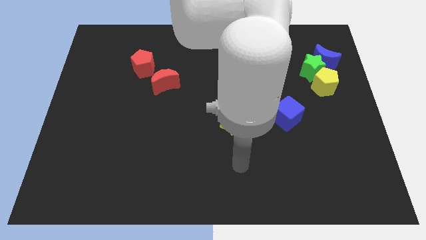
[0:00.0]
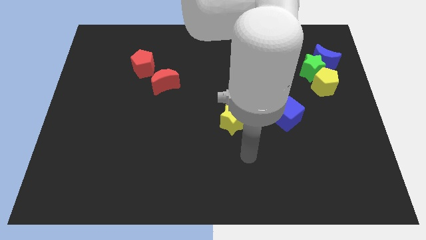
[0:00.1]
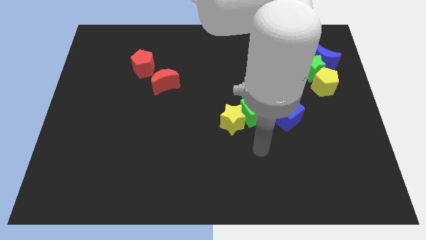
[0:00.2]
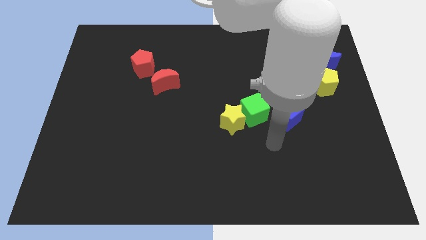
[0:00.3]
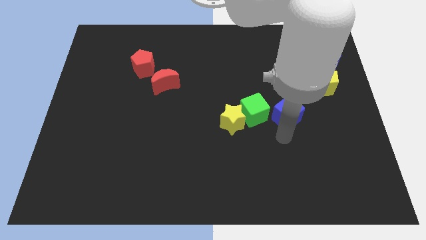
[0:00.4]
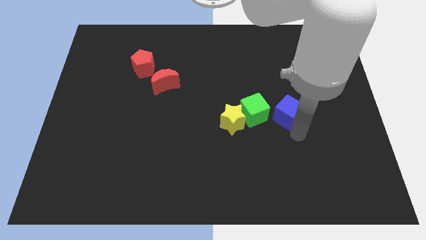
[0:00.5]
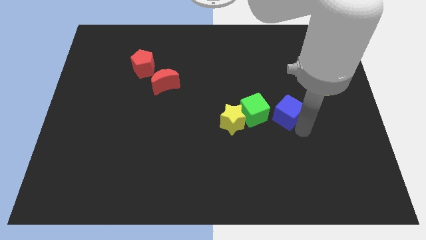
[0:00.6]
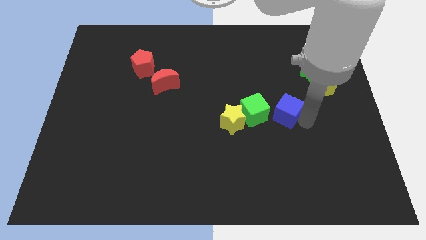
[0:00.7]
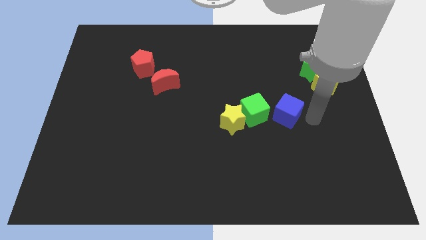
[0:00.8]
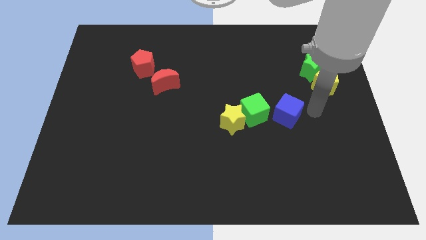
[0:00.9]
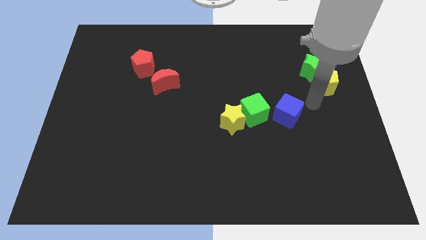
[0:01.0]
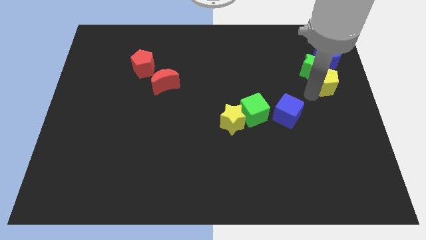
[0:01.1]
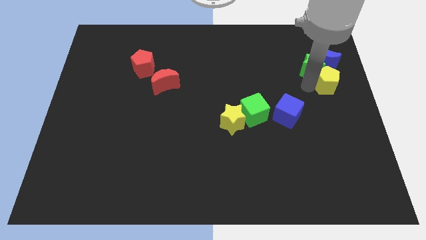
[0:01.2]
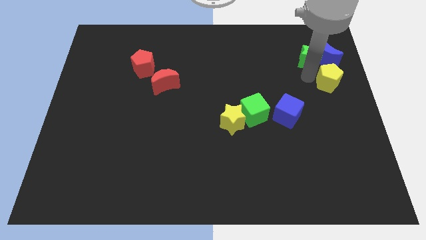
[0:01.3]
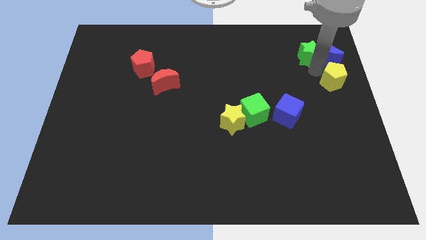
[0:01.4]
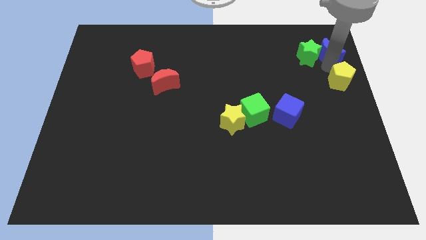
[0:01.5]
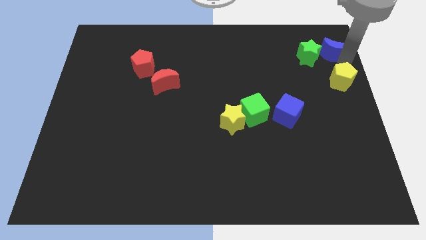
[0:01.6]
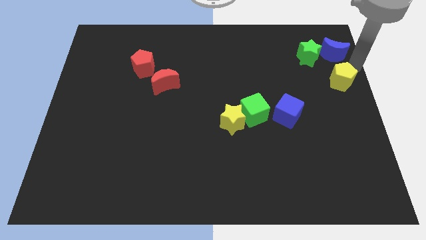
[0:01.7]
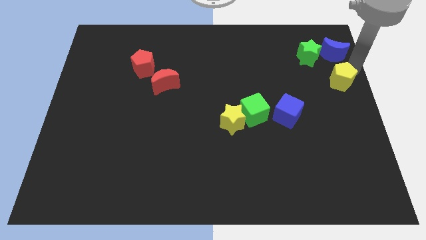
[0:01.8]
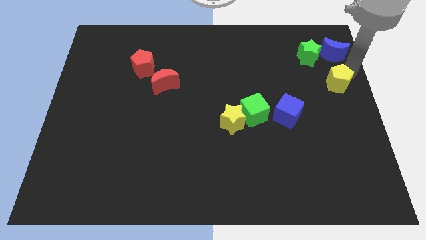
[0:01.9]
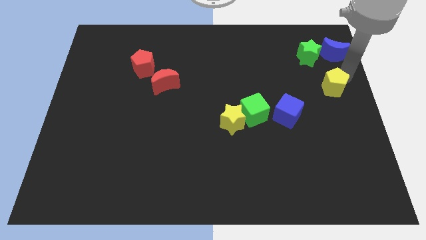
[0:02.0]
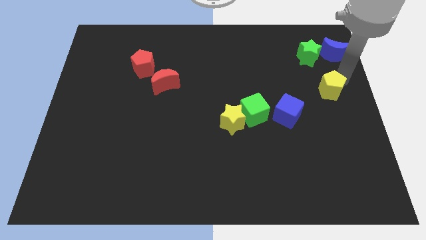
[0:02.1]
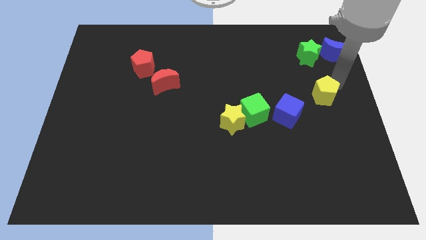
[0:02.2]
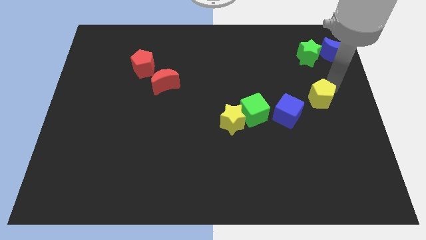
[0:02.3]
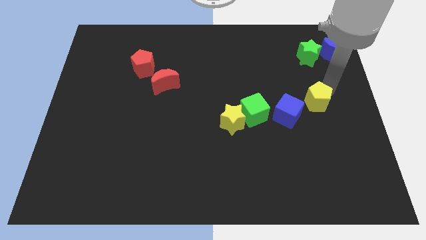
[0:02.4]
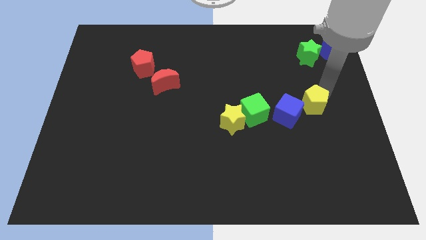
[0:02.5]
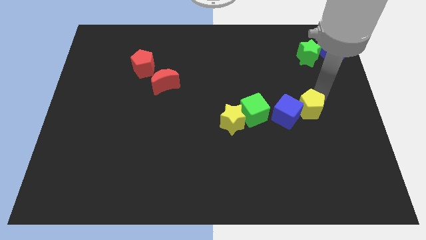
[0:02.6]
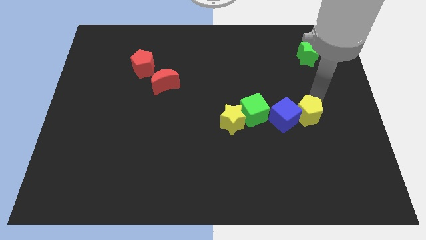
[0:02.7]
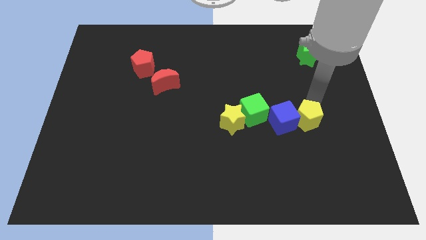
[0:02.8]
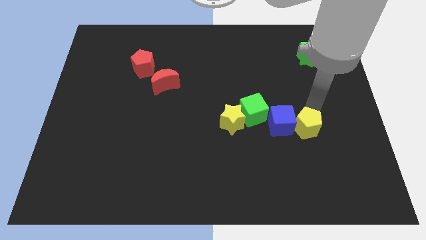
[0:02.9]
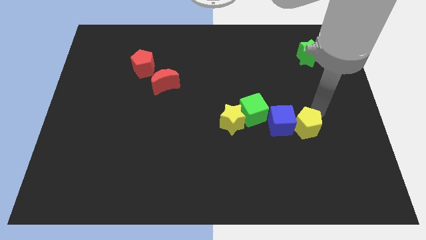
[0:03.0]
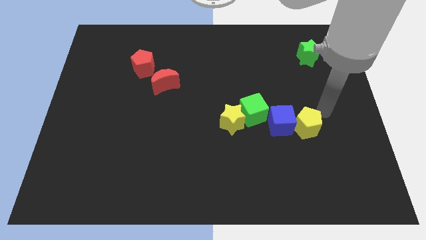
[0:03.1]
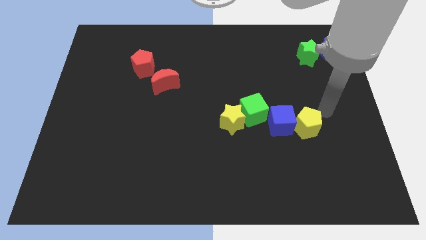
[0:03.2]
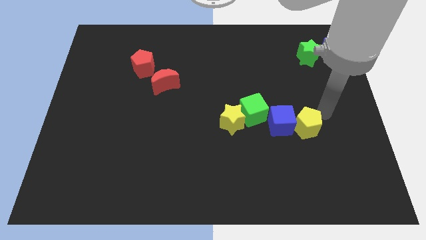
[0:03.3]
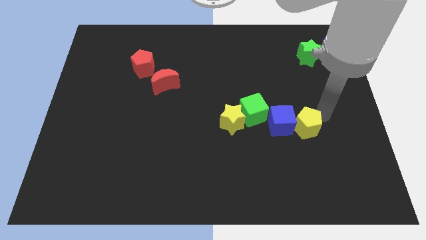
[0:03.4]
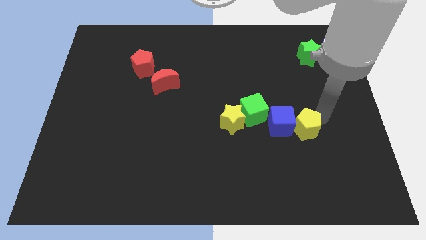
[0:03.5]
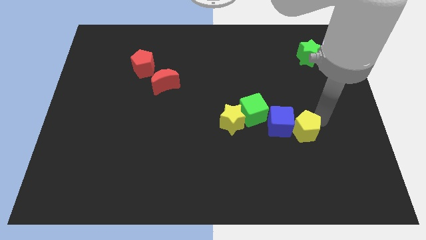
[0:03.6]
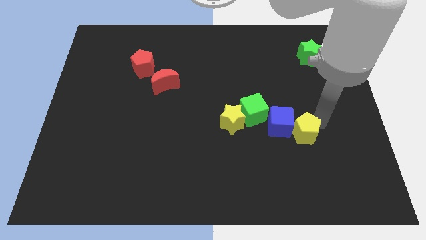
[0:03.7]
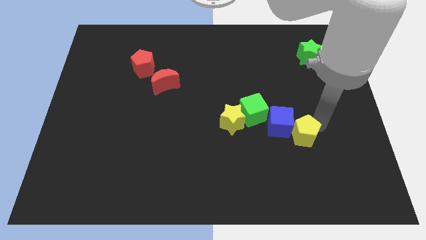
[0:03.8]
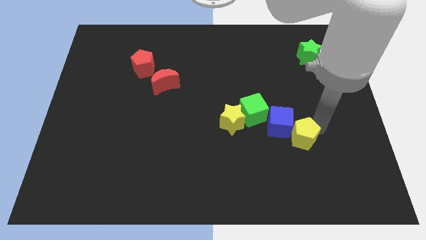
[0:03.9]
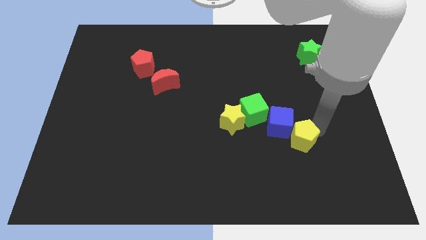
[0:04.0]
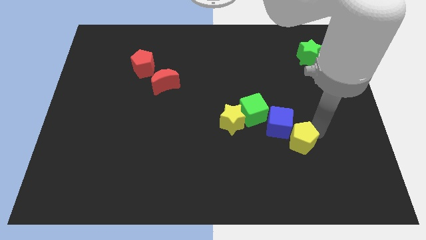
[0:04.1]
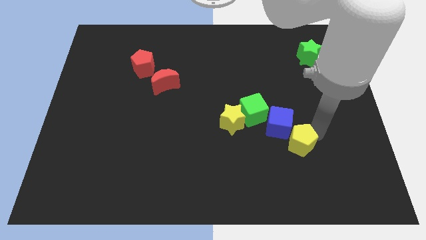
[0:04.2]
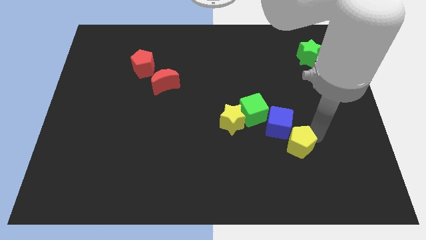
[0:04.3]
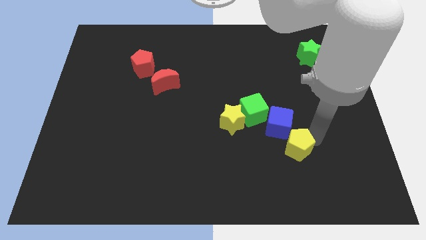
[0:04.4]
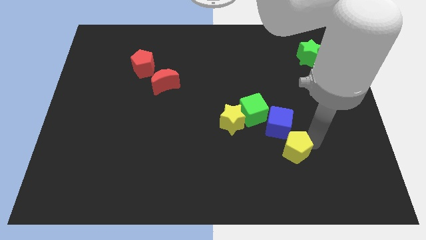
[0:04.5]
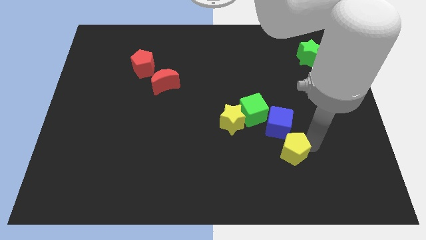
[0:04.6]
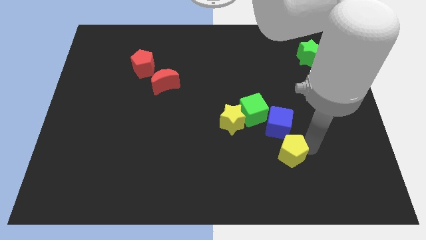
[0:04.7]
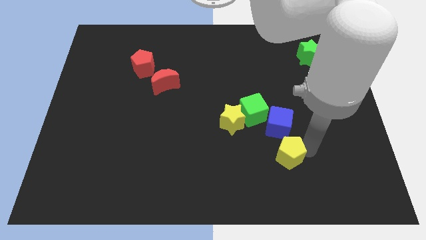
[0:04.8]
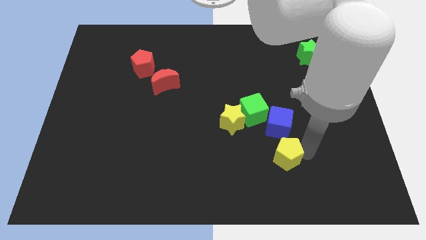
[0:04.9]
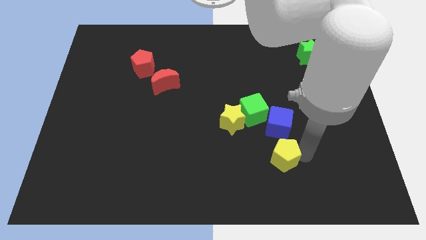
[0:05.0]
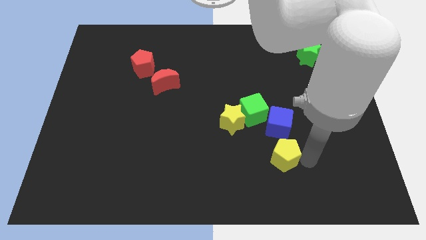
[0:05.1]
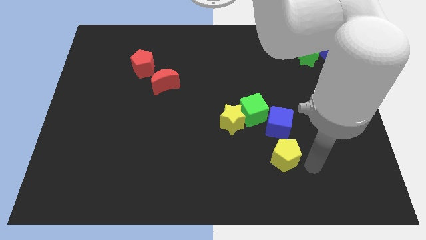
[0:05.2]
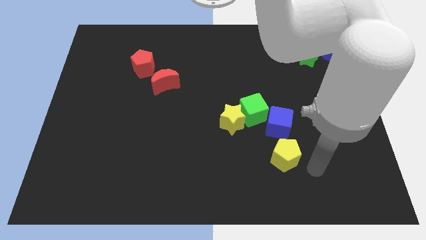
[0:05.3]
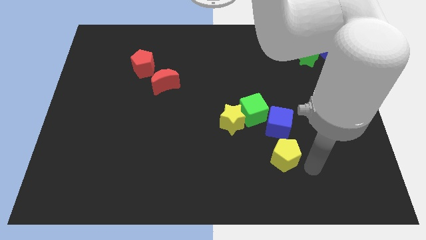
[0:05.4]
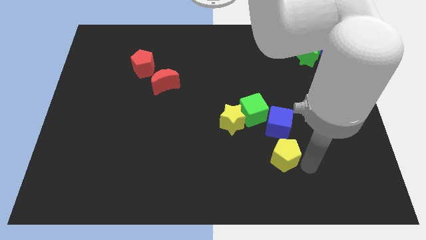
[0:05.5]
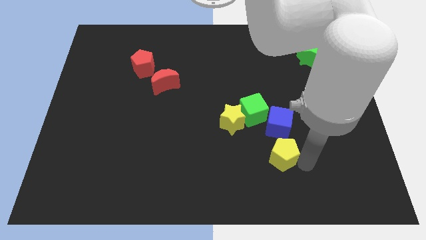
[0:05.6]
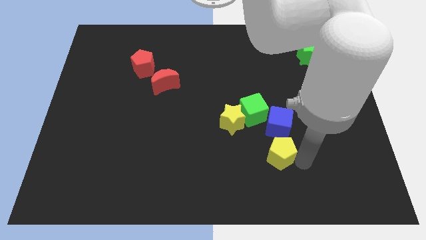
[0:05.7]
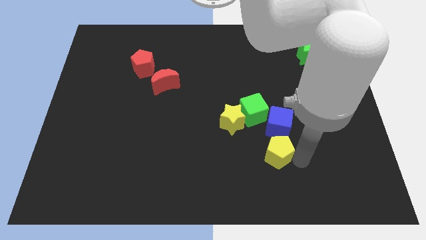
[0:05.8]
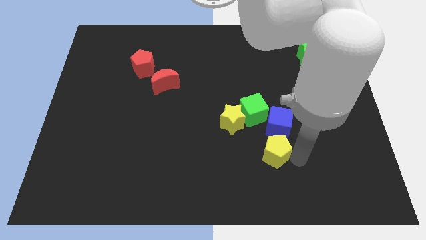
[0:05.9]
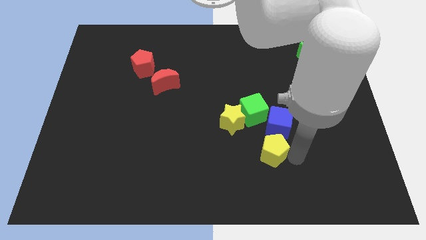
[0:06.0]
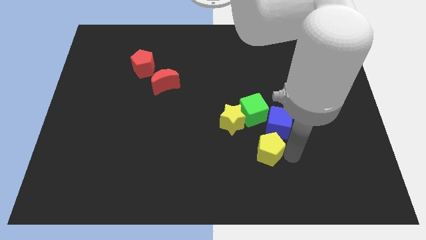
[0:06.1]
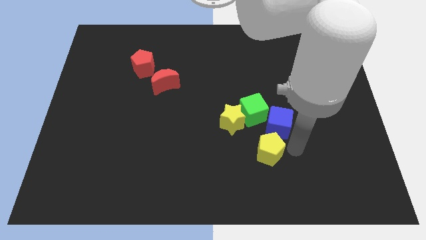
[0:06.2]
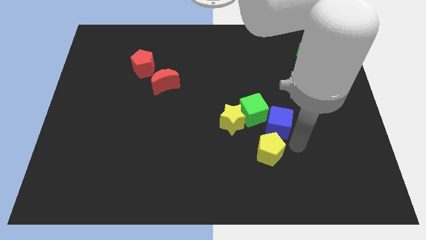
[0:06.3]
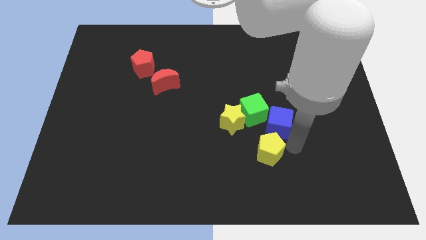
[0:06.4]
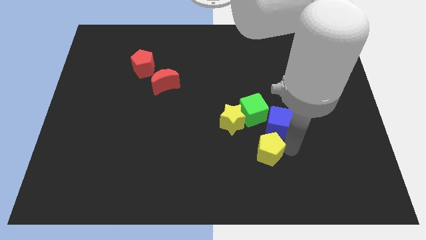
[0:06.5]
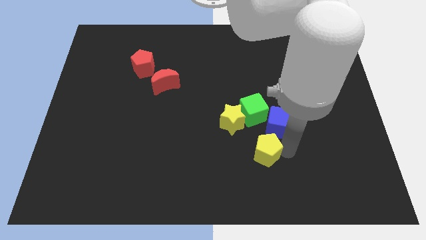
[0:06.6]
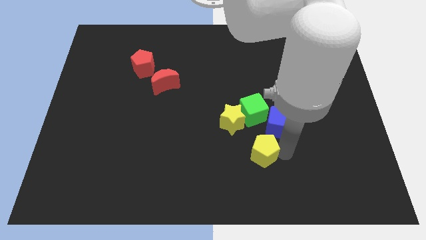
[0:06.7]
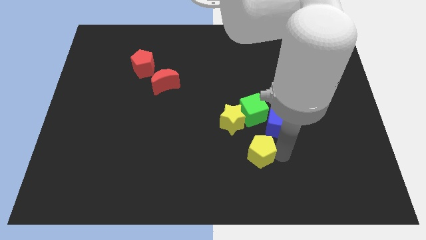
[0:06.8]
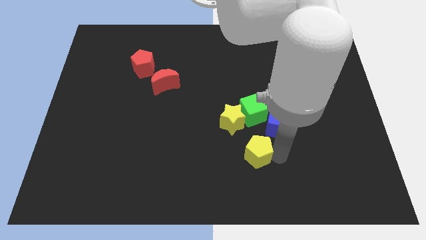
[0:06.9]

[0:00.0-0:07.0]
push the yellow pentagon to the bottom side of the yellow star

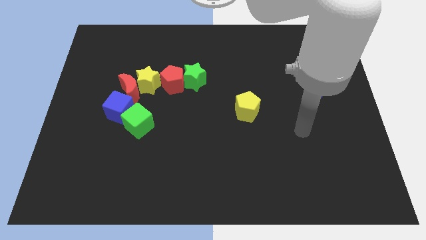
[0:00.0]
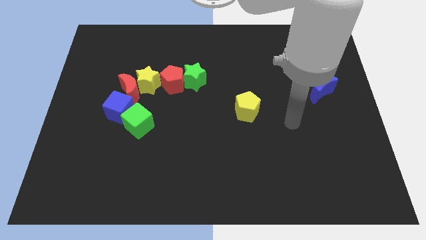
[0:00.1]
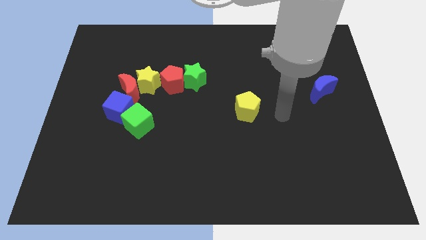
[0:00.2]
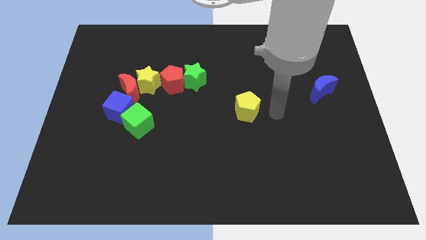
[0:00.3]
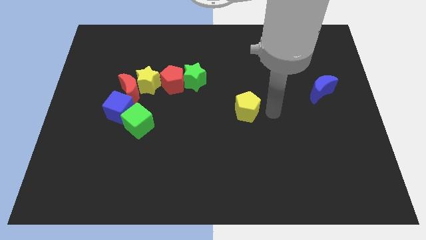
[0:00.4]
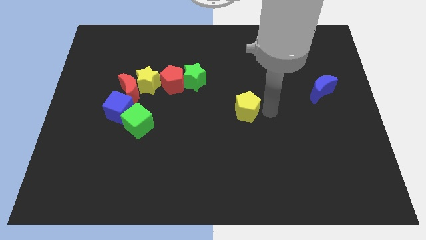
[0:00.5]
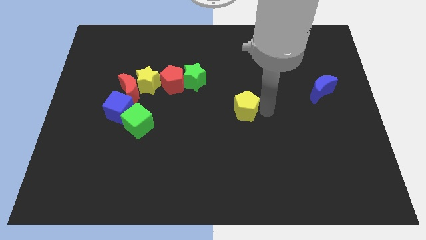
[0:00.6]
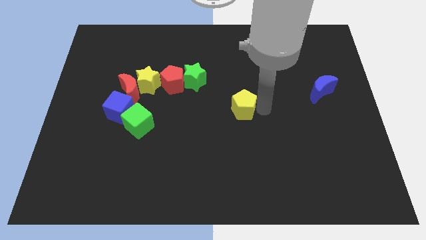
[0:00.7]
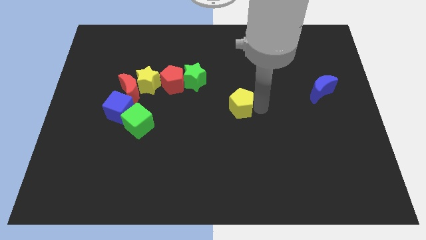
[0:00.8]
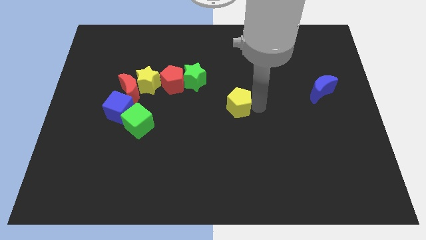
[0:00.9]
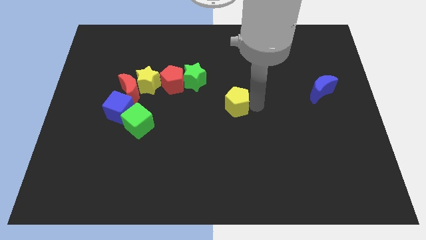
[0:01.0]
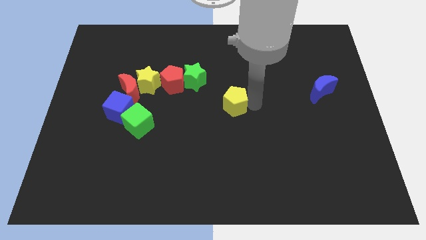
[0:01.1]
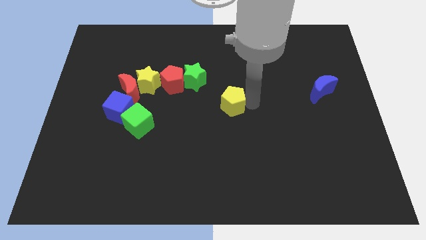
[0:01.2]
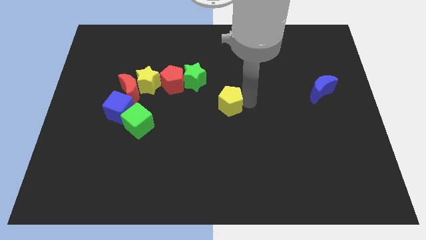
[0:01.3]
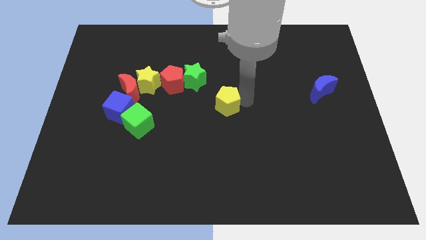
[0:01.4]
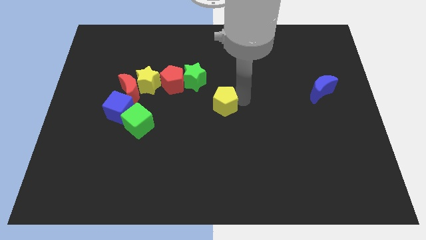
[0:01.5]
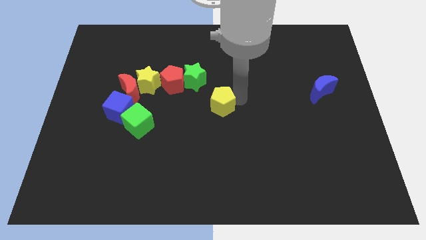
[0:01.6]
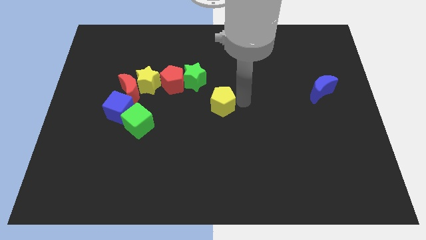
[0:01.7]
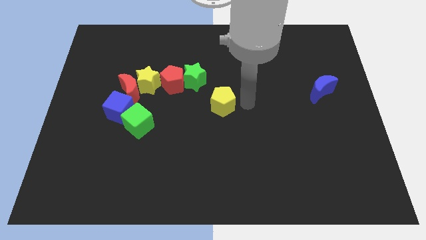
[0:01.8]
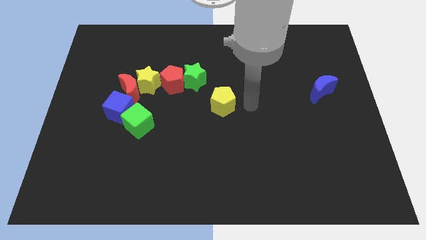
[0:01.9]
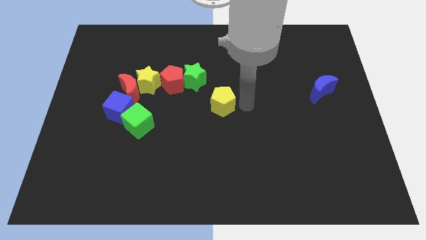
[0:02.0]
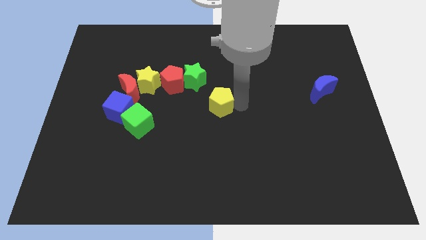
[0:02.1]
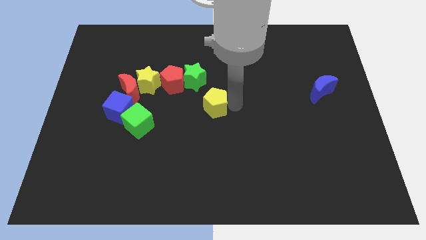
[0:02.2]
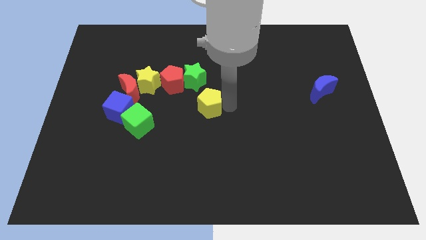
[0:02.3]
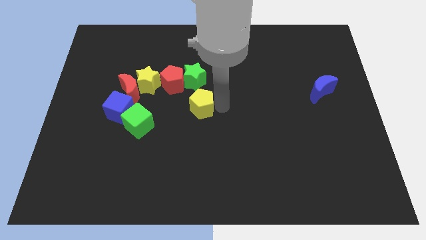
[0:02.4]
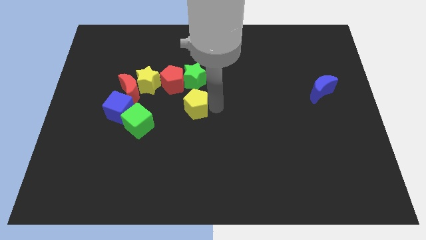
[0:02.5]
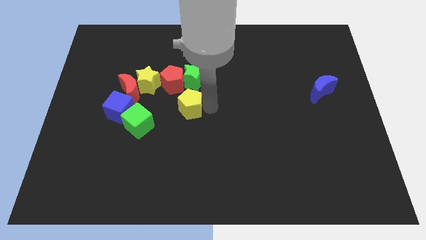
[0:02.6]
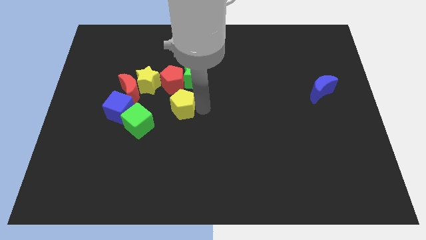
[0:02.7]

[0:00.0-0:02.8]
move the yellow pentagon to the bottom right side of the yellow star
